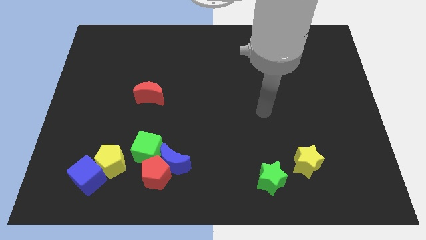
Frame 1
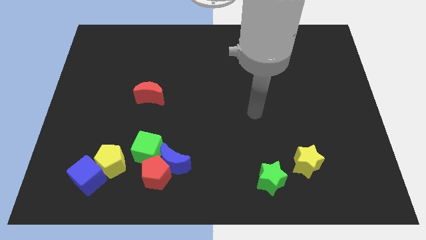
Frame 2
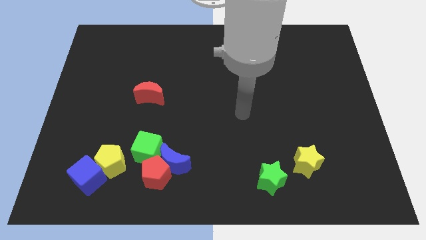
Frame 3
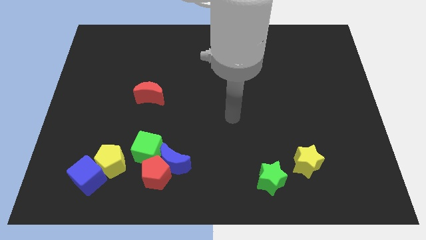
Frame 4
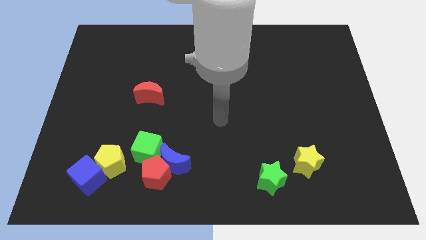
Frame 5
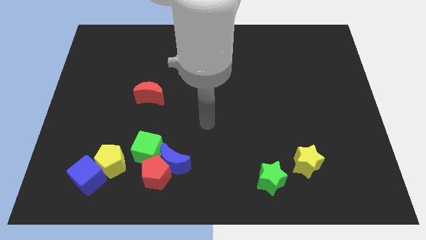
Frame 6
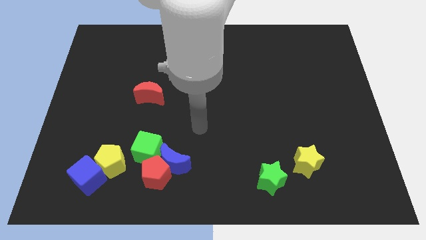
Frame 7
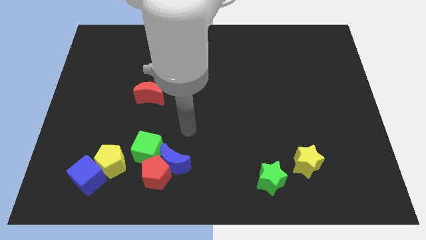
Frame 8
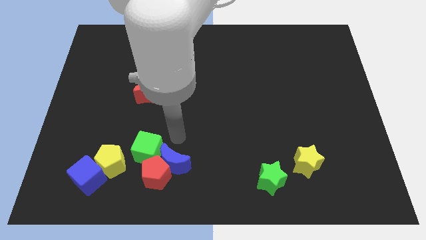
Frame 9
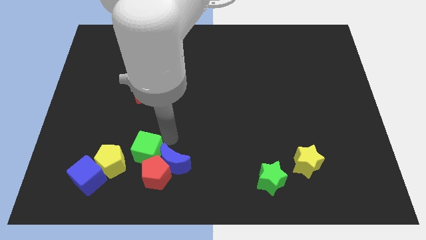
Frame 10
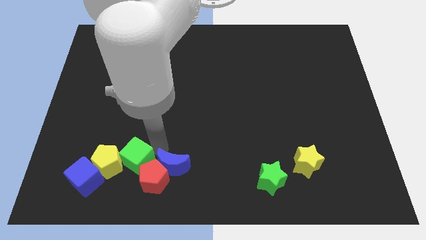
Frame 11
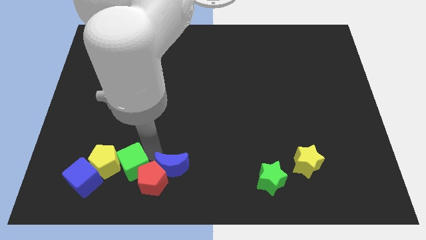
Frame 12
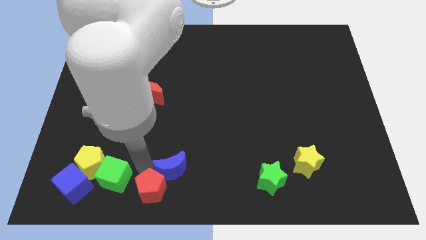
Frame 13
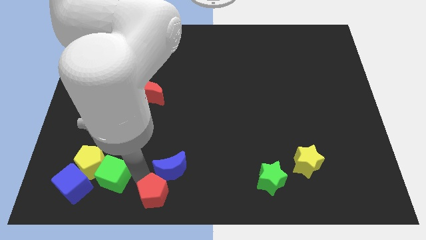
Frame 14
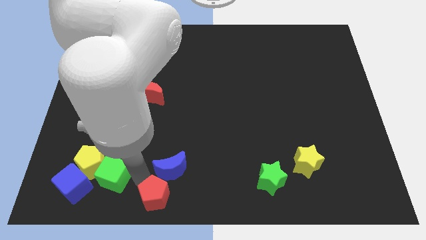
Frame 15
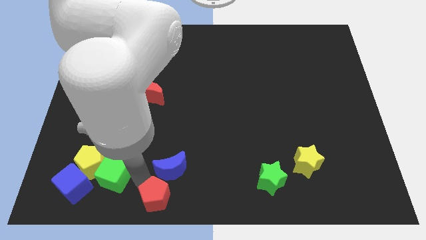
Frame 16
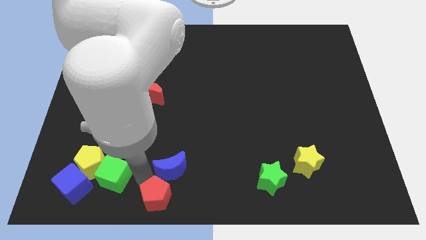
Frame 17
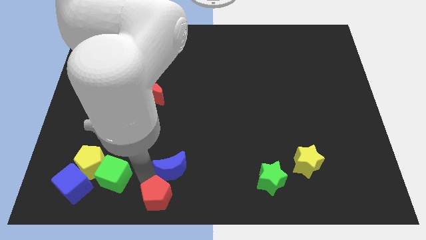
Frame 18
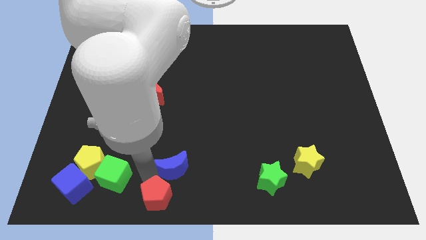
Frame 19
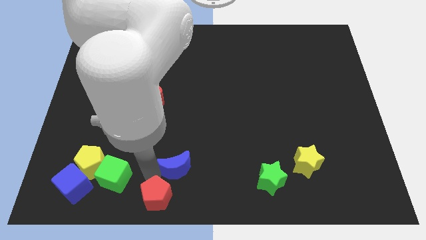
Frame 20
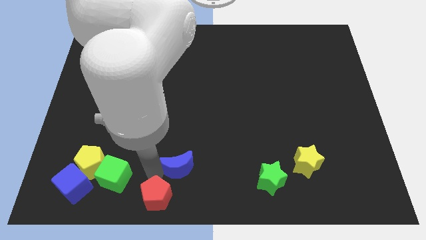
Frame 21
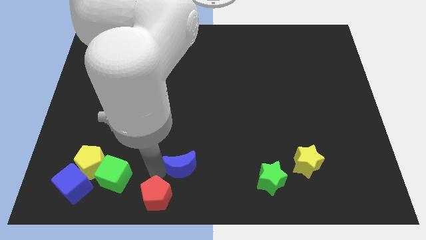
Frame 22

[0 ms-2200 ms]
separate the blue moon from the red pentagon and green cube

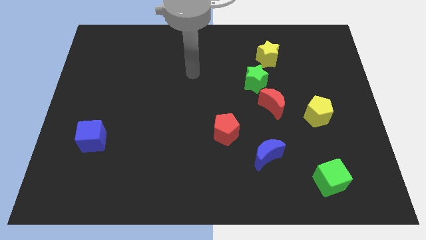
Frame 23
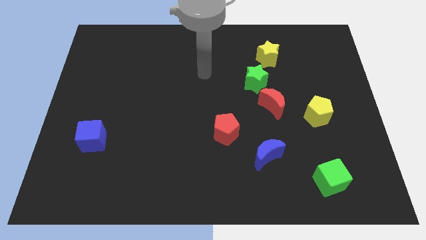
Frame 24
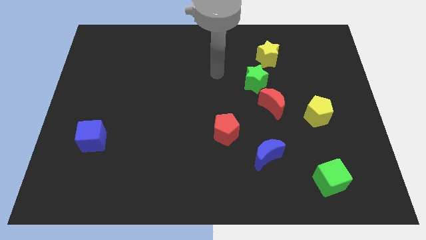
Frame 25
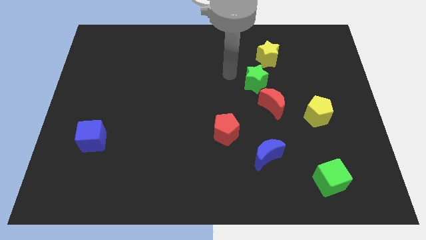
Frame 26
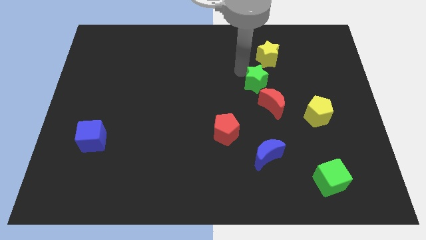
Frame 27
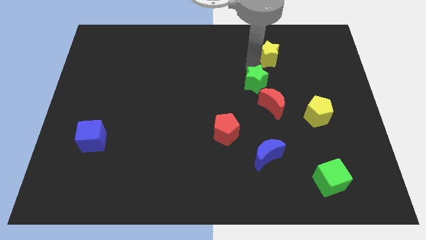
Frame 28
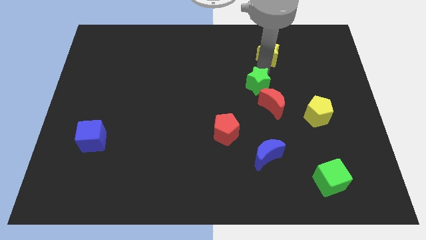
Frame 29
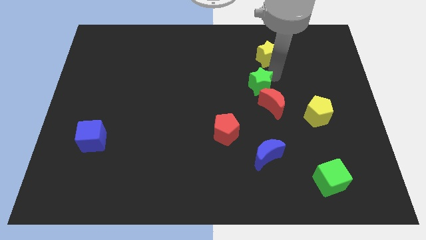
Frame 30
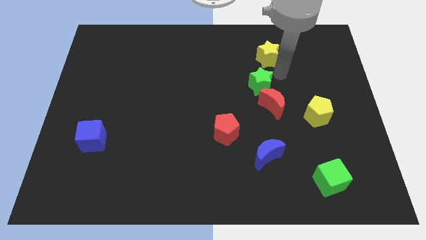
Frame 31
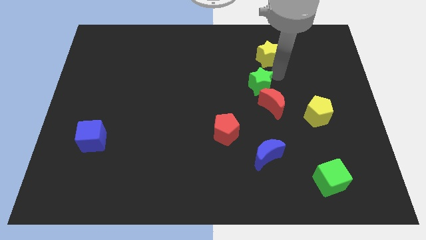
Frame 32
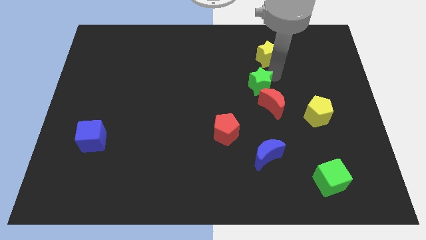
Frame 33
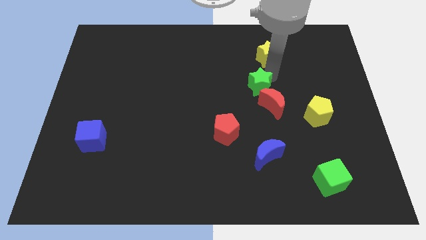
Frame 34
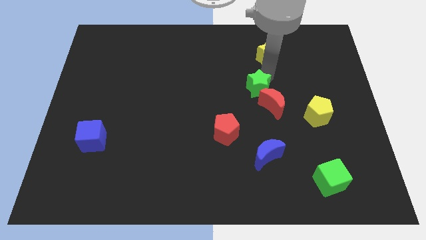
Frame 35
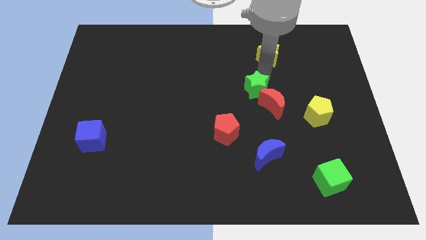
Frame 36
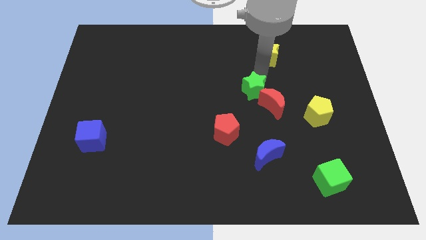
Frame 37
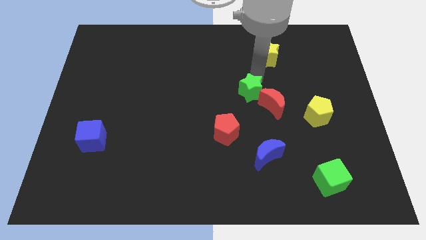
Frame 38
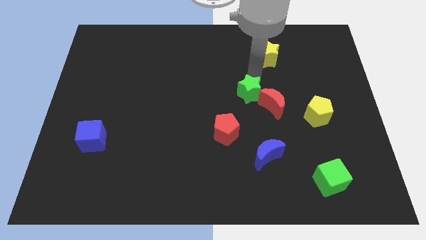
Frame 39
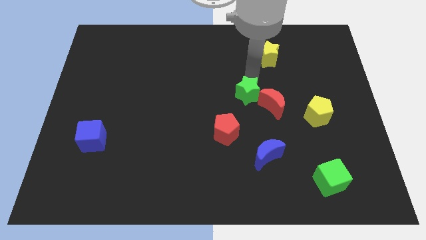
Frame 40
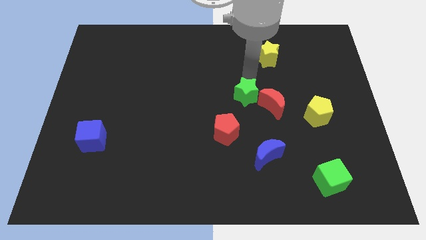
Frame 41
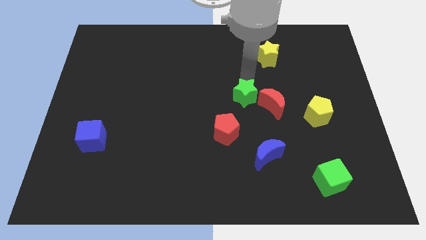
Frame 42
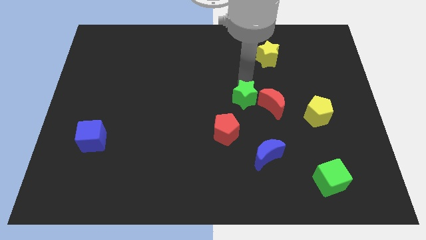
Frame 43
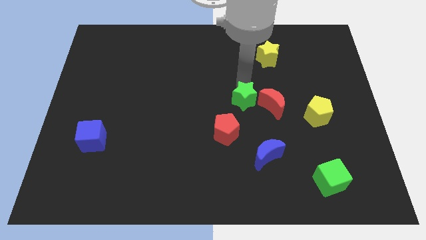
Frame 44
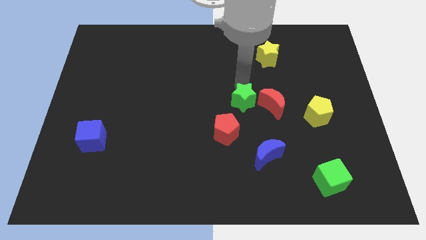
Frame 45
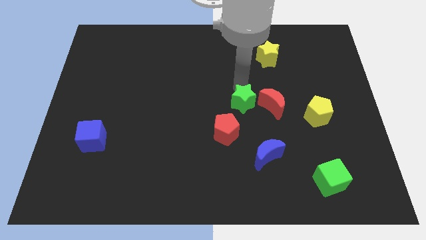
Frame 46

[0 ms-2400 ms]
pull the green star apart from the red moon and yellow star

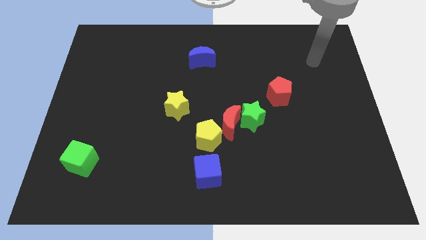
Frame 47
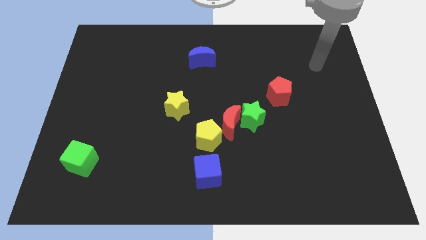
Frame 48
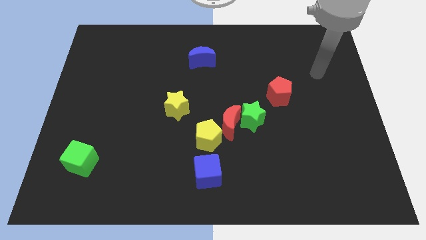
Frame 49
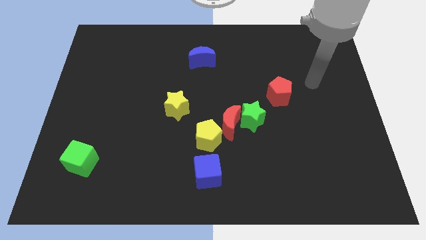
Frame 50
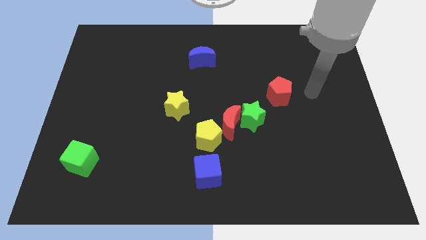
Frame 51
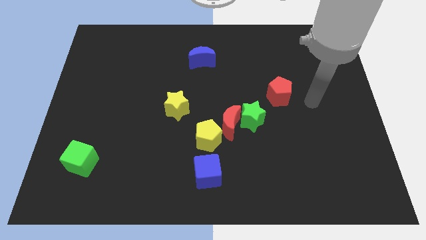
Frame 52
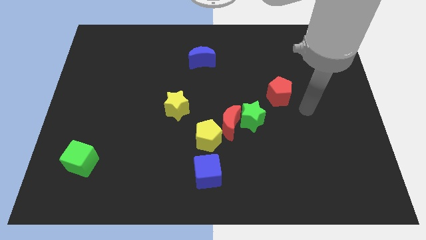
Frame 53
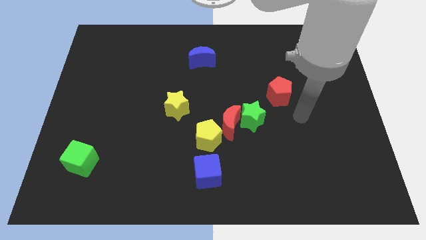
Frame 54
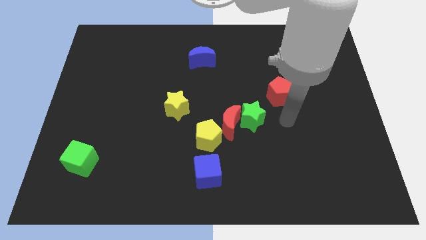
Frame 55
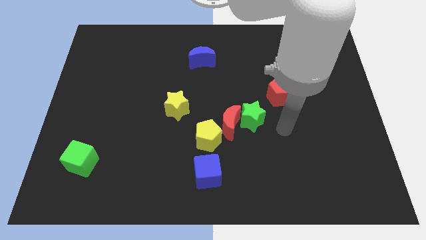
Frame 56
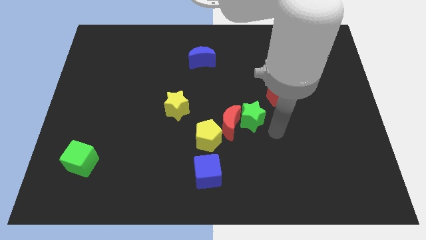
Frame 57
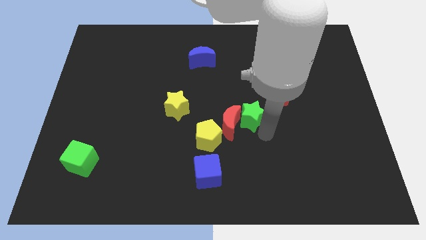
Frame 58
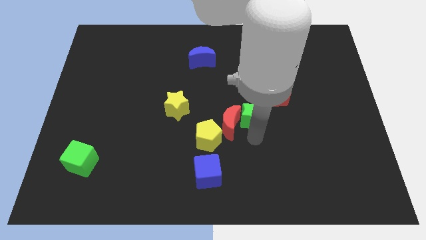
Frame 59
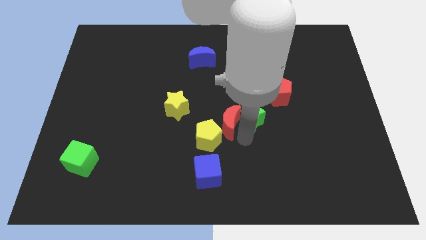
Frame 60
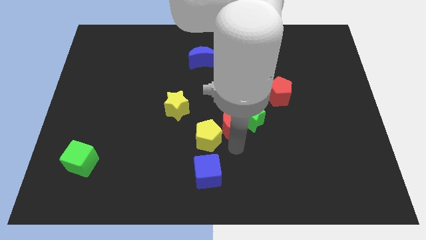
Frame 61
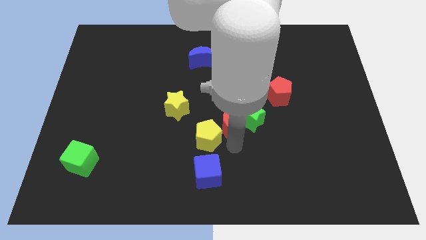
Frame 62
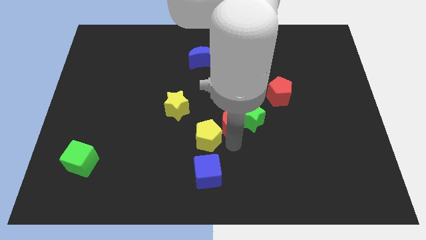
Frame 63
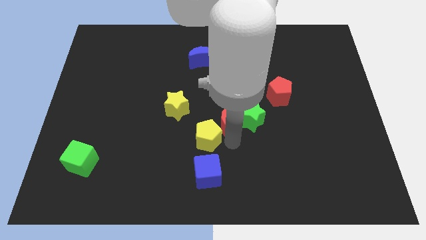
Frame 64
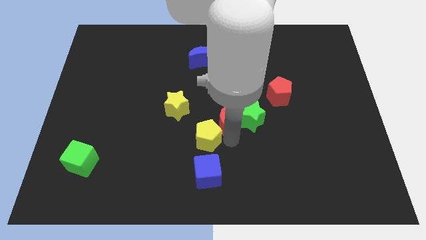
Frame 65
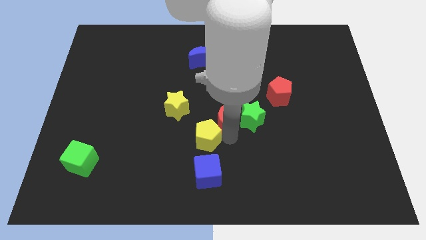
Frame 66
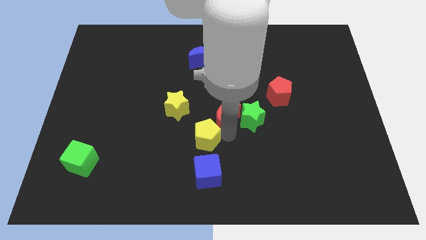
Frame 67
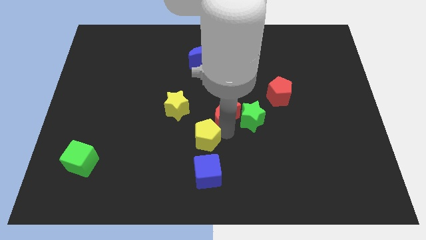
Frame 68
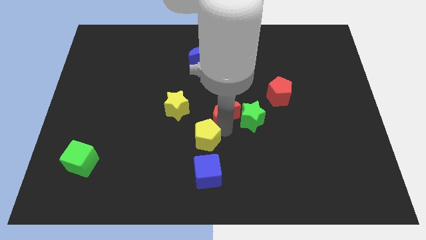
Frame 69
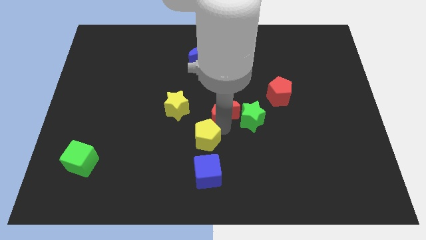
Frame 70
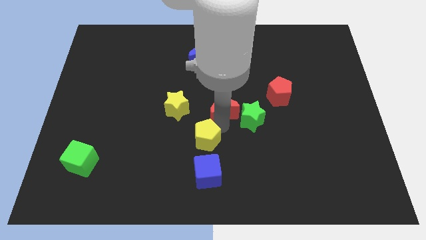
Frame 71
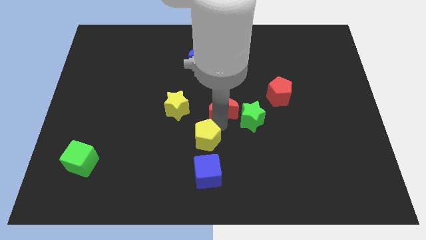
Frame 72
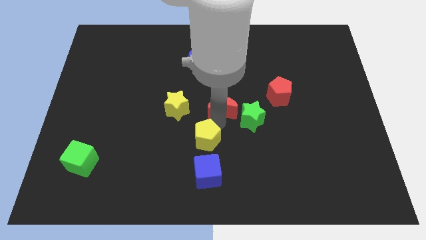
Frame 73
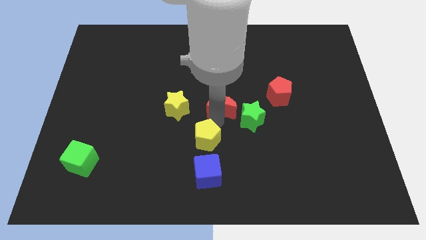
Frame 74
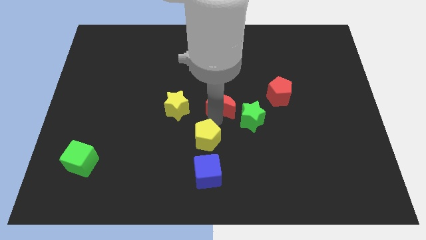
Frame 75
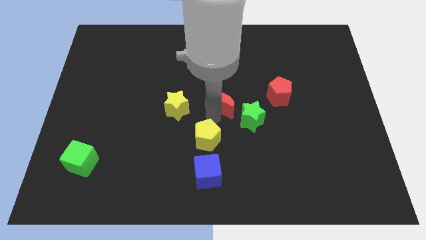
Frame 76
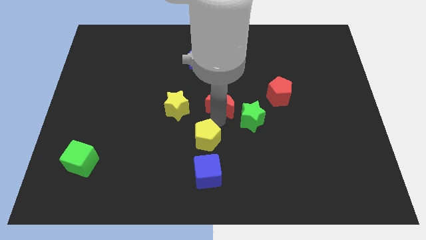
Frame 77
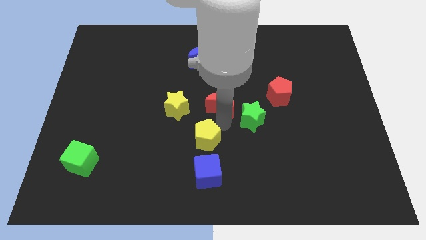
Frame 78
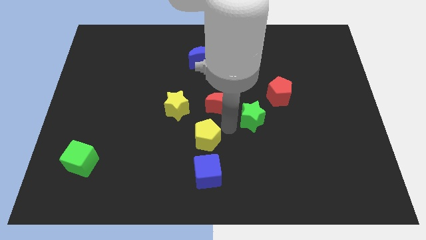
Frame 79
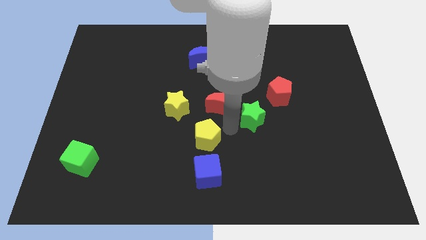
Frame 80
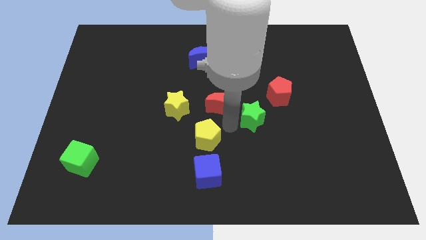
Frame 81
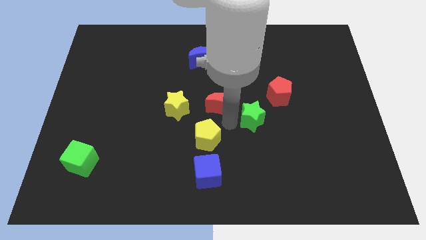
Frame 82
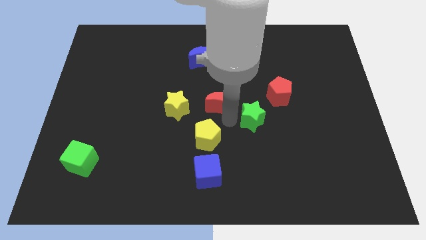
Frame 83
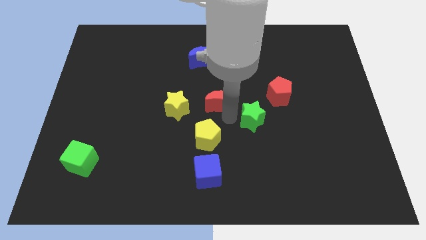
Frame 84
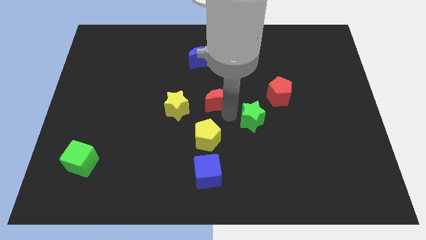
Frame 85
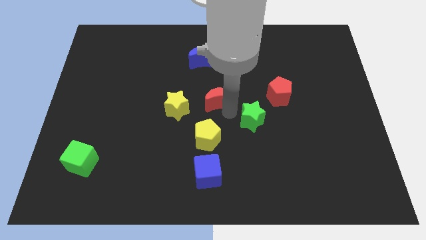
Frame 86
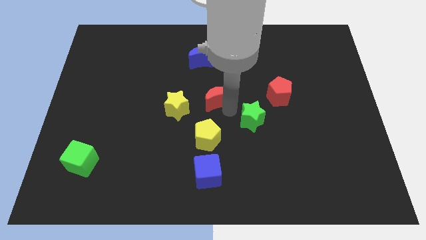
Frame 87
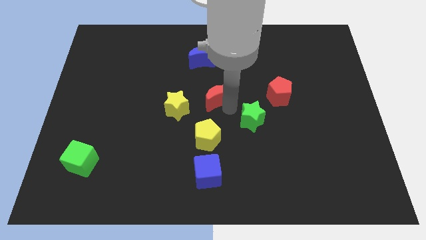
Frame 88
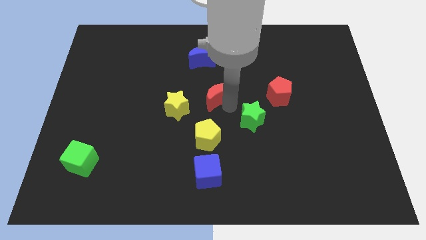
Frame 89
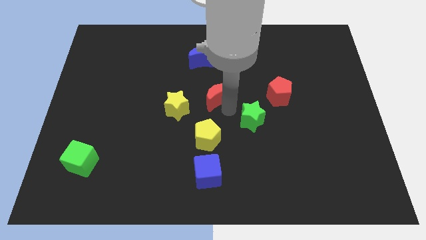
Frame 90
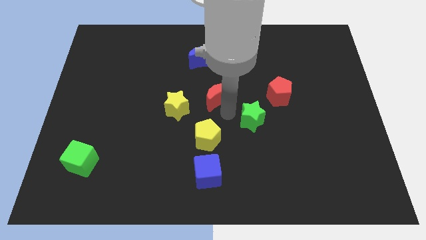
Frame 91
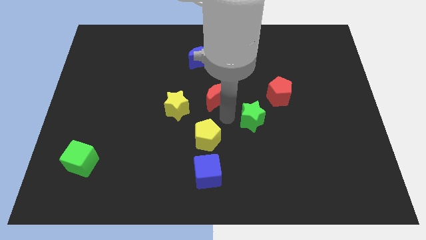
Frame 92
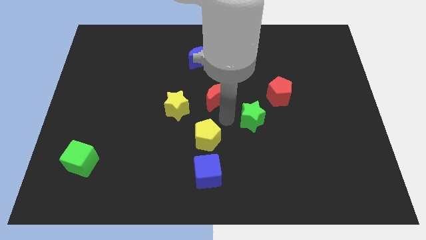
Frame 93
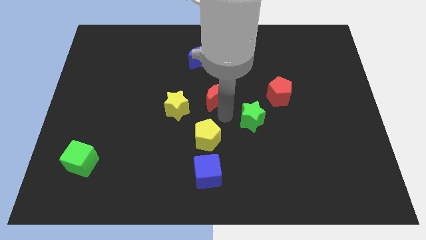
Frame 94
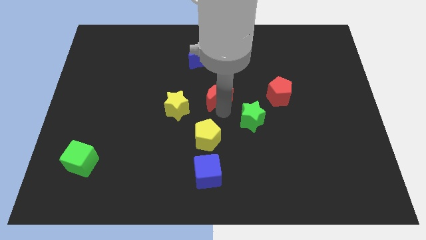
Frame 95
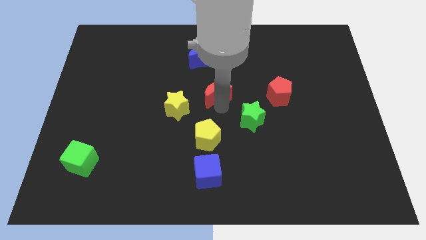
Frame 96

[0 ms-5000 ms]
move the red moon away from the green star and yellow pentagon
